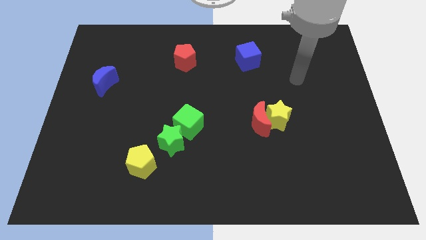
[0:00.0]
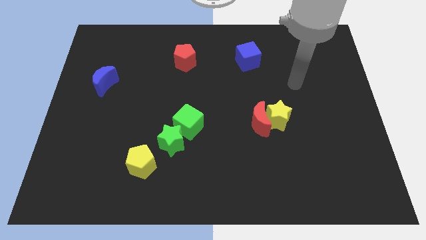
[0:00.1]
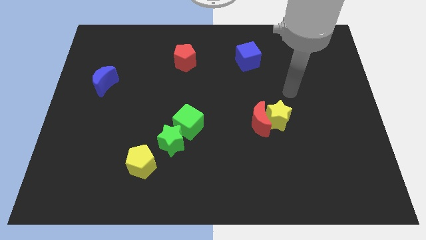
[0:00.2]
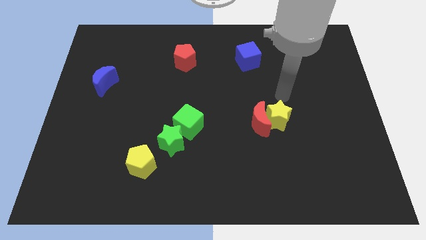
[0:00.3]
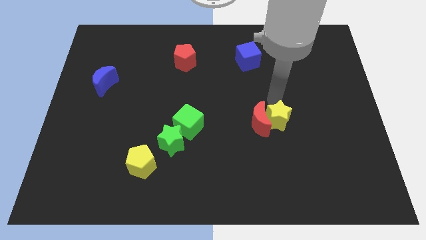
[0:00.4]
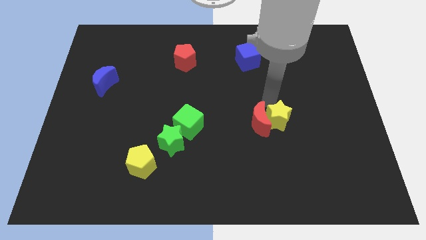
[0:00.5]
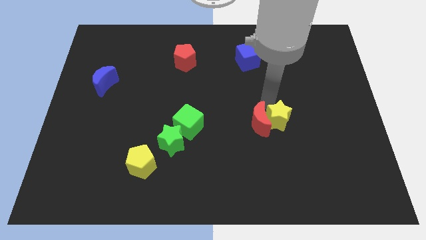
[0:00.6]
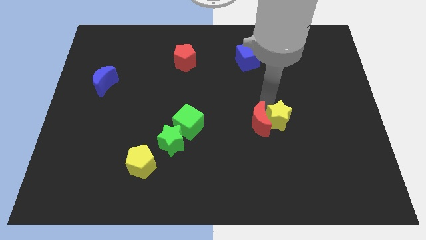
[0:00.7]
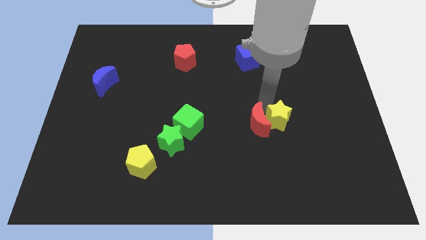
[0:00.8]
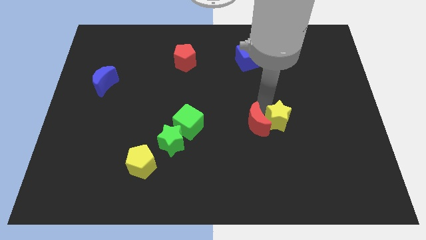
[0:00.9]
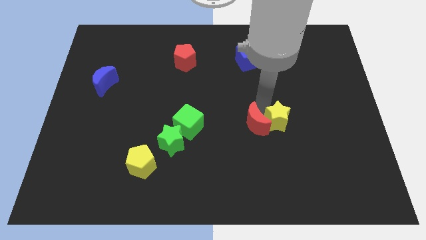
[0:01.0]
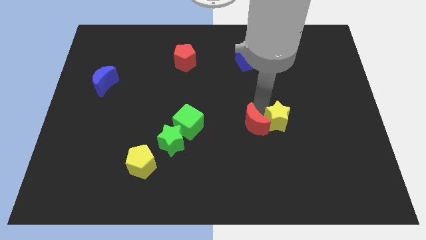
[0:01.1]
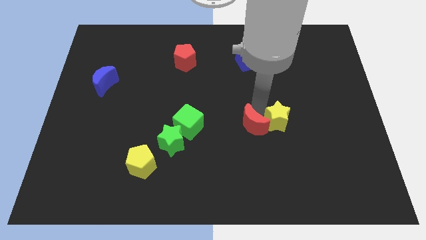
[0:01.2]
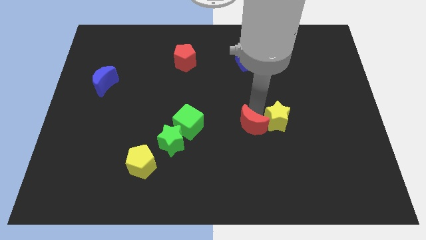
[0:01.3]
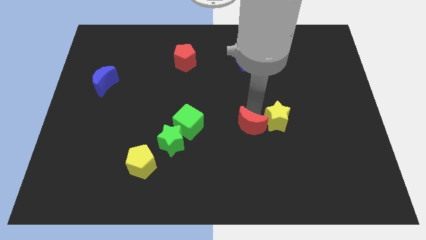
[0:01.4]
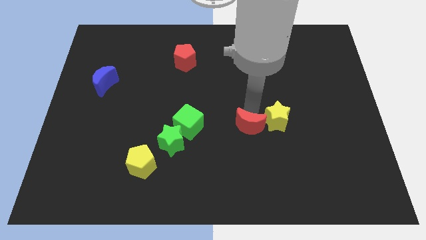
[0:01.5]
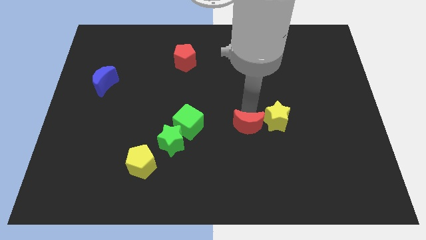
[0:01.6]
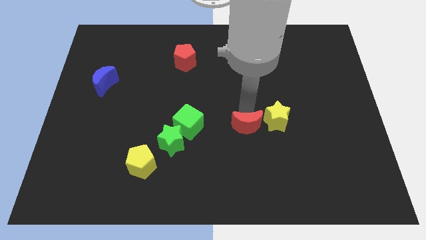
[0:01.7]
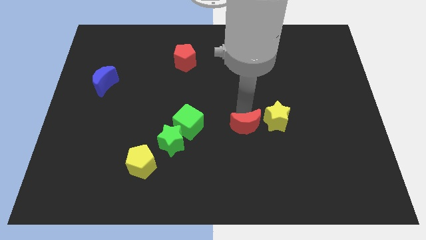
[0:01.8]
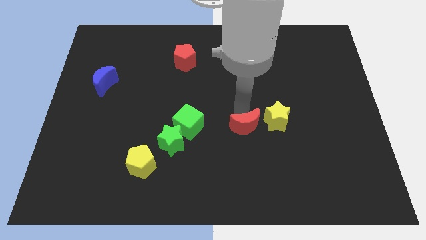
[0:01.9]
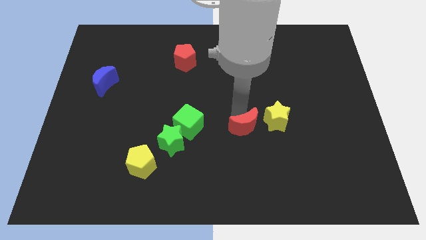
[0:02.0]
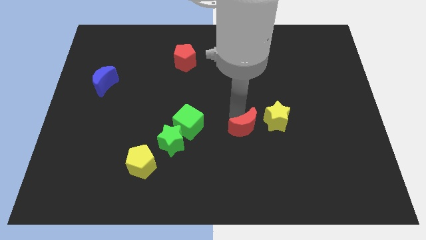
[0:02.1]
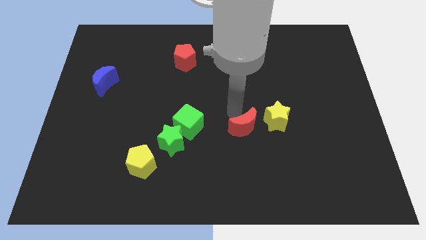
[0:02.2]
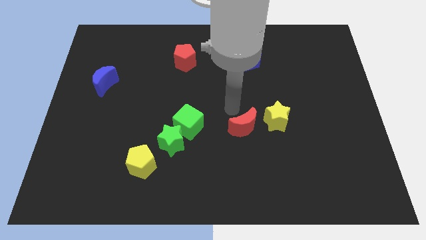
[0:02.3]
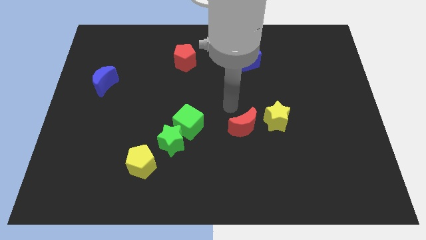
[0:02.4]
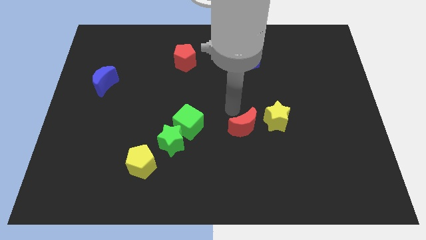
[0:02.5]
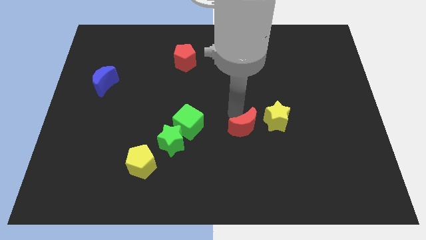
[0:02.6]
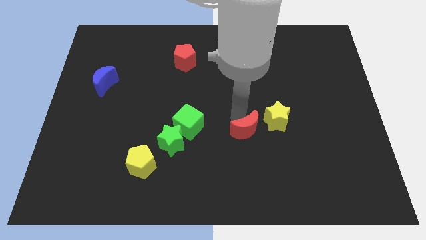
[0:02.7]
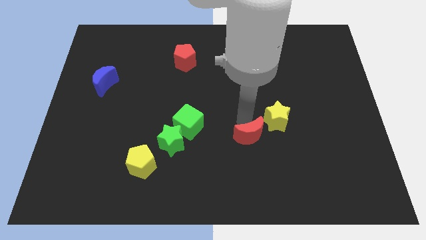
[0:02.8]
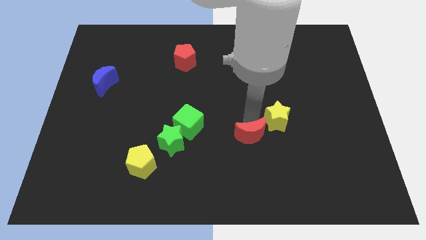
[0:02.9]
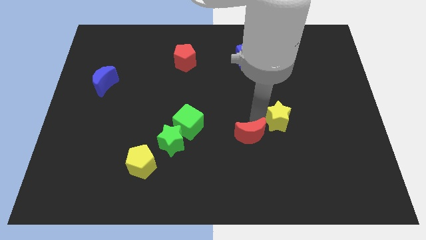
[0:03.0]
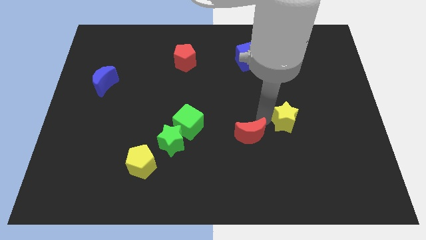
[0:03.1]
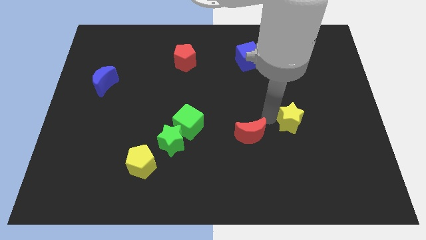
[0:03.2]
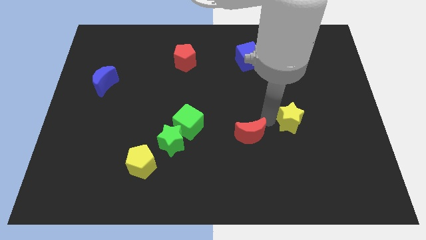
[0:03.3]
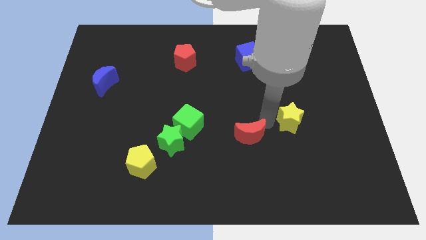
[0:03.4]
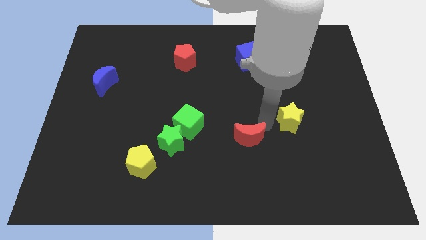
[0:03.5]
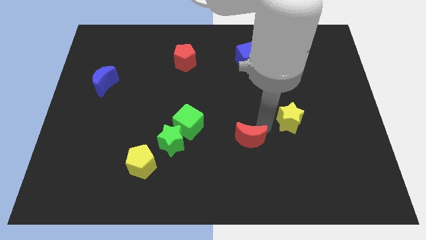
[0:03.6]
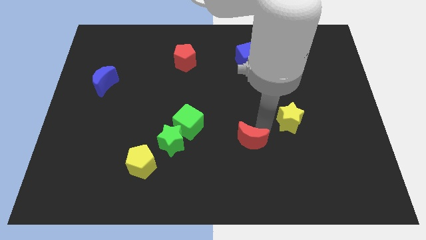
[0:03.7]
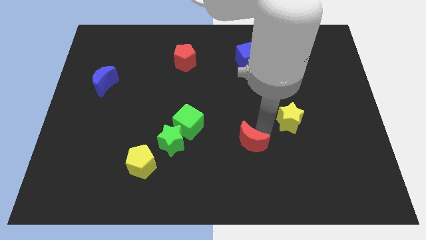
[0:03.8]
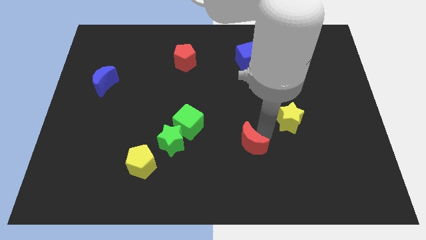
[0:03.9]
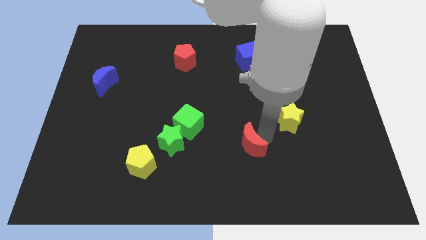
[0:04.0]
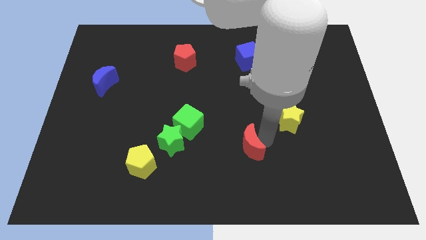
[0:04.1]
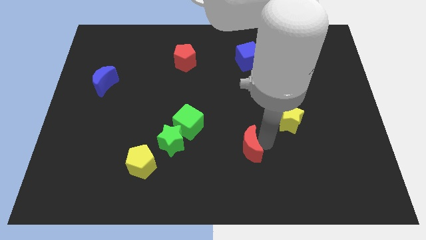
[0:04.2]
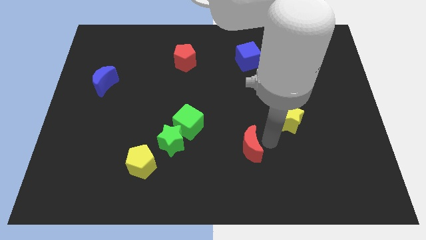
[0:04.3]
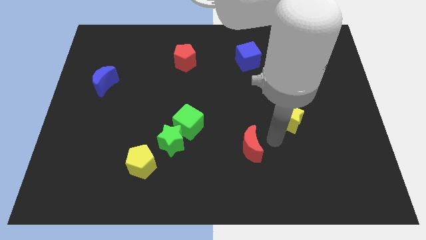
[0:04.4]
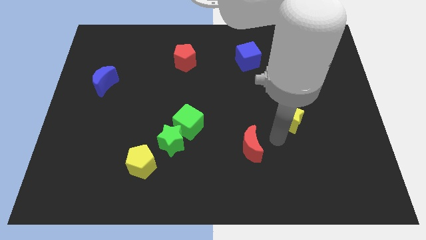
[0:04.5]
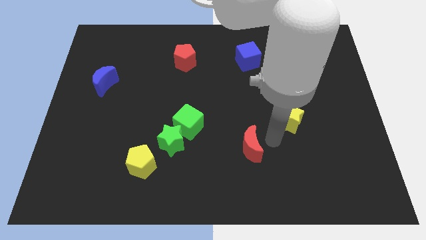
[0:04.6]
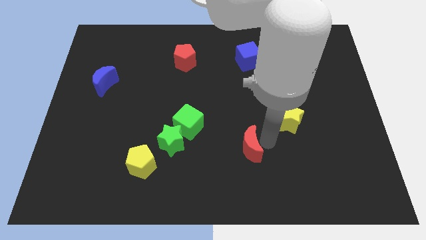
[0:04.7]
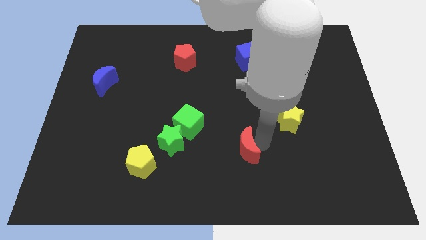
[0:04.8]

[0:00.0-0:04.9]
slightly push the red moon down and then left

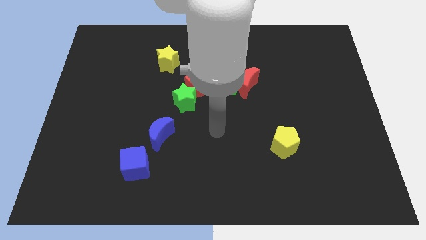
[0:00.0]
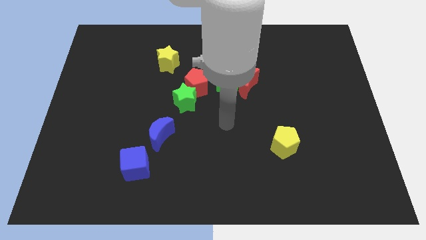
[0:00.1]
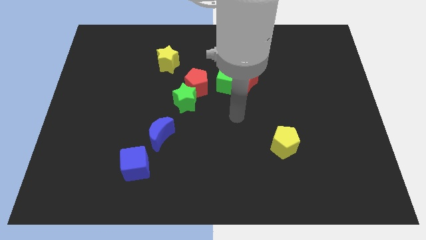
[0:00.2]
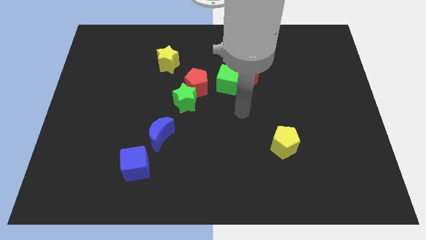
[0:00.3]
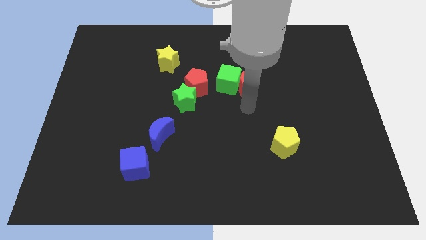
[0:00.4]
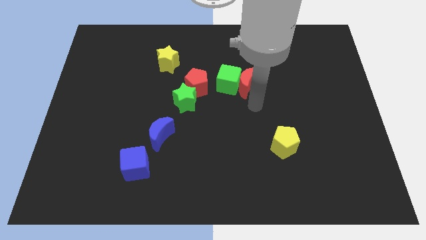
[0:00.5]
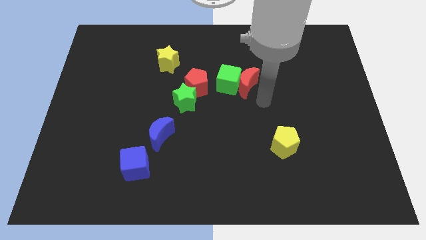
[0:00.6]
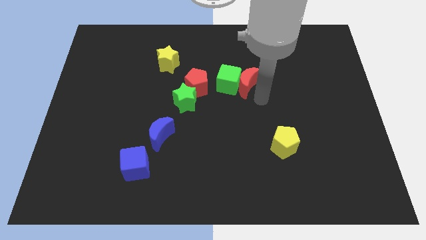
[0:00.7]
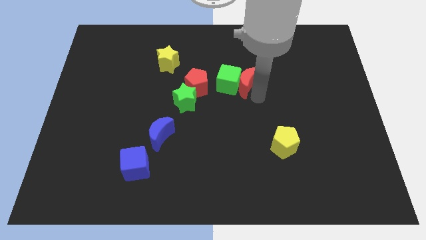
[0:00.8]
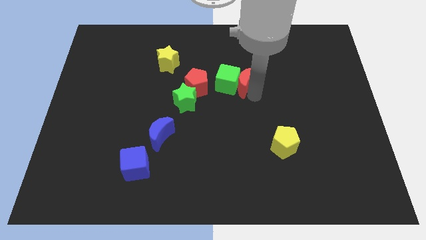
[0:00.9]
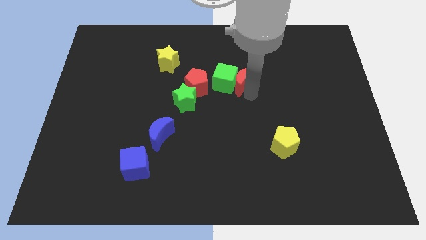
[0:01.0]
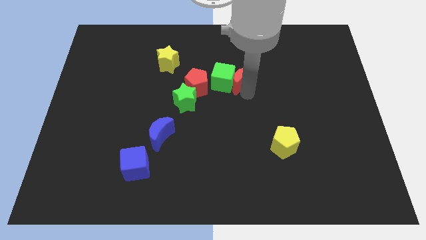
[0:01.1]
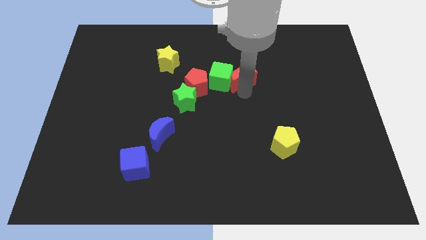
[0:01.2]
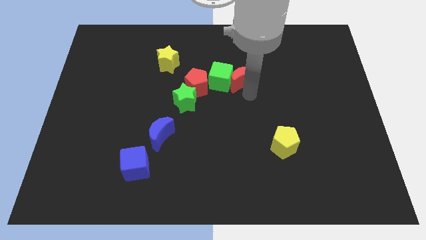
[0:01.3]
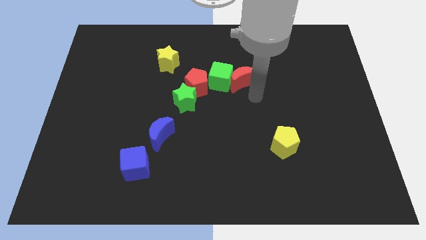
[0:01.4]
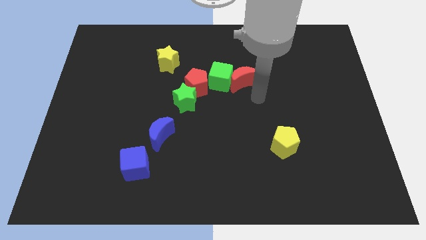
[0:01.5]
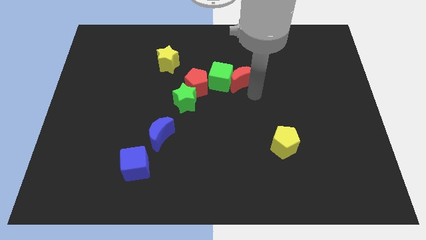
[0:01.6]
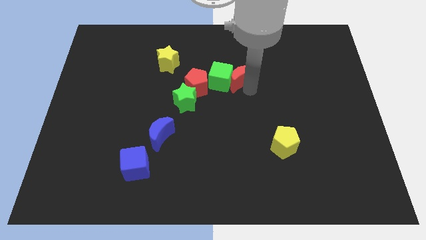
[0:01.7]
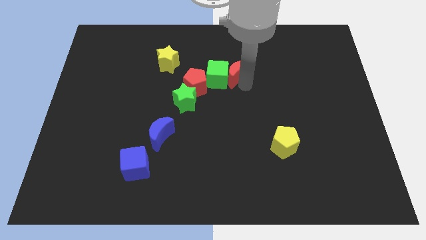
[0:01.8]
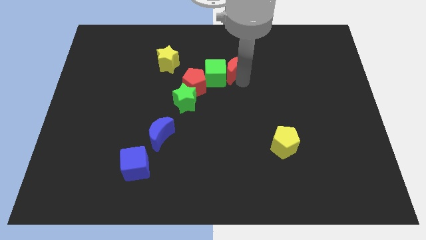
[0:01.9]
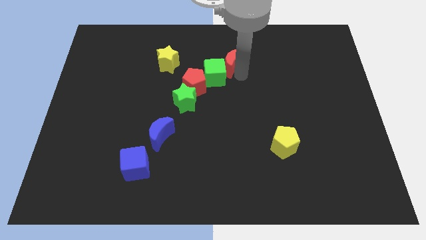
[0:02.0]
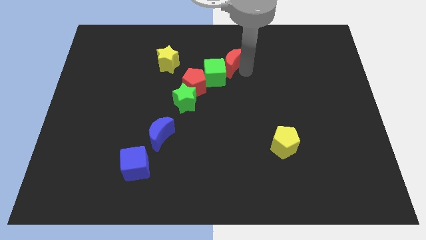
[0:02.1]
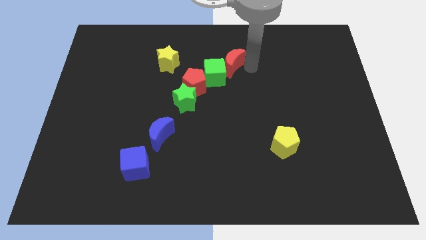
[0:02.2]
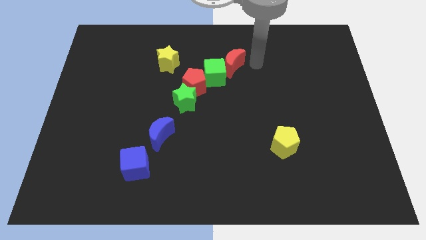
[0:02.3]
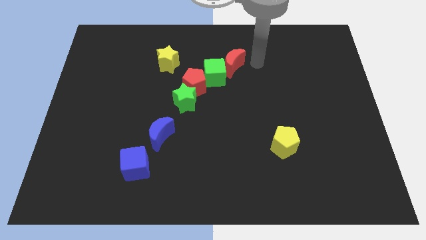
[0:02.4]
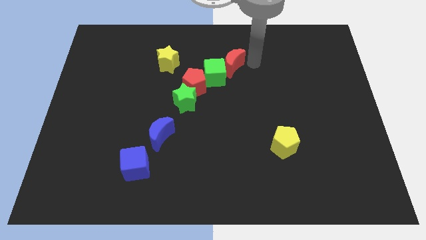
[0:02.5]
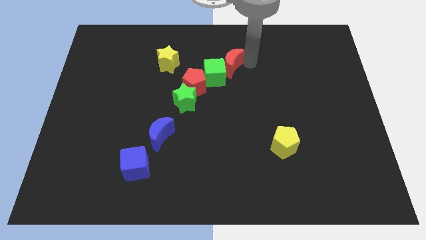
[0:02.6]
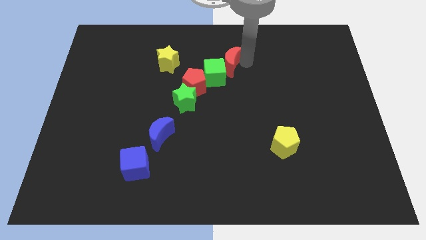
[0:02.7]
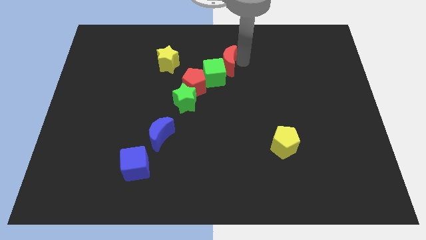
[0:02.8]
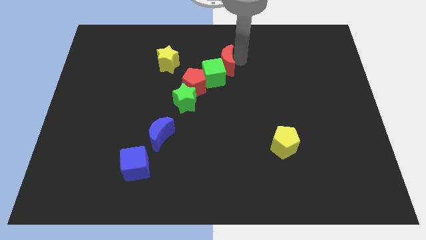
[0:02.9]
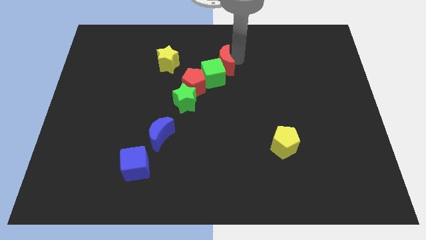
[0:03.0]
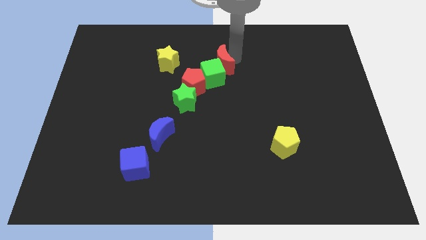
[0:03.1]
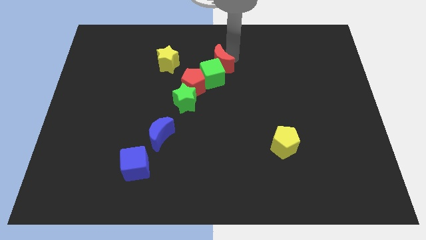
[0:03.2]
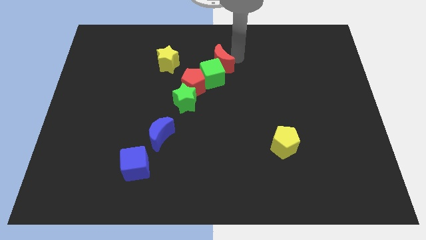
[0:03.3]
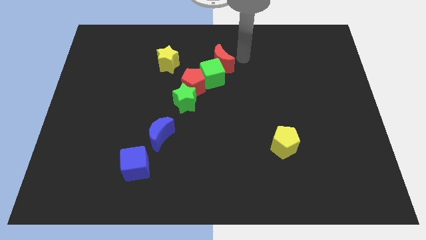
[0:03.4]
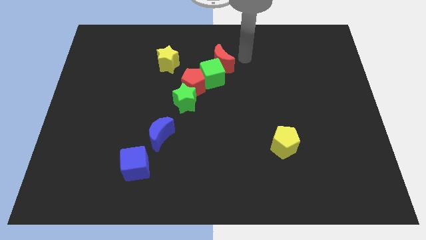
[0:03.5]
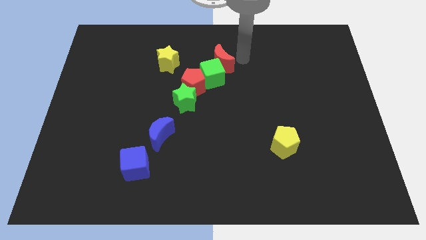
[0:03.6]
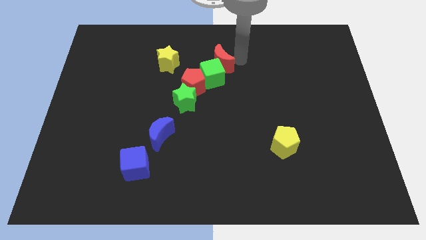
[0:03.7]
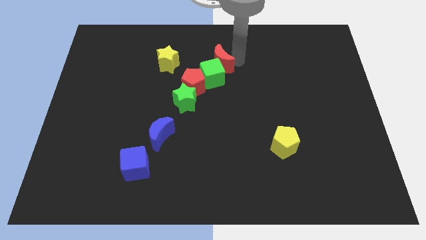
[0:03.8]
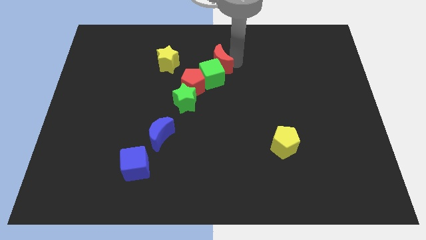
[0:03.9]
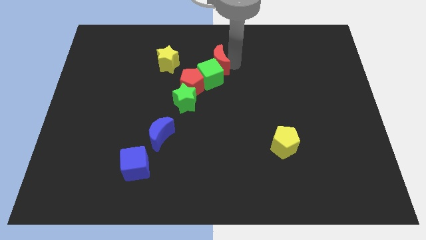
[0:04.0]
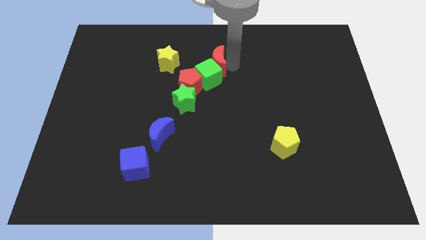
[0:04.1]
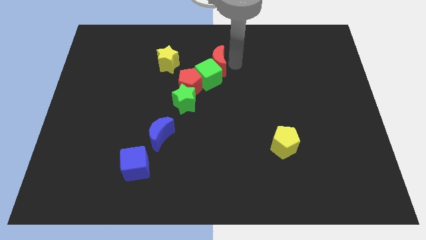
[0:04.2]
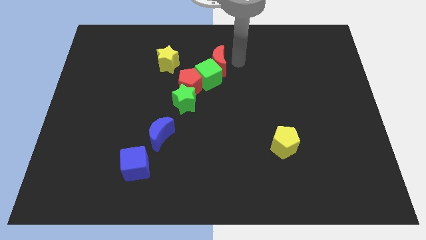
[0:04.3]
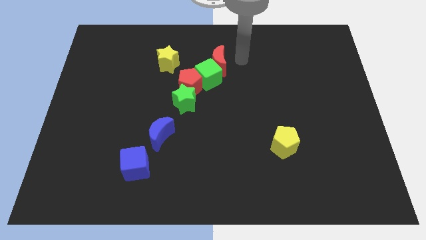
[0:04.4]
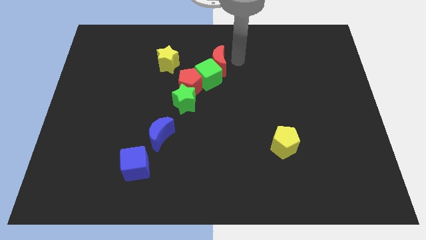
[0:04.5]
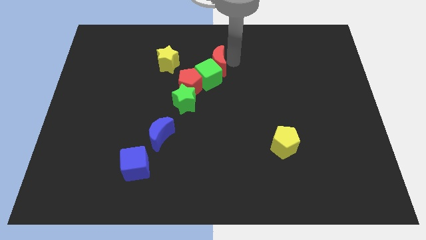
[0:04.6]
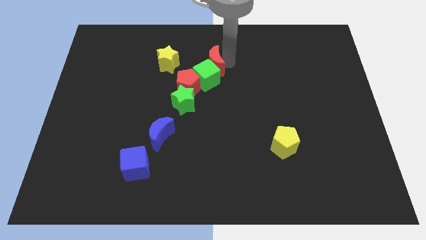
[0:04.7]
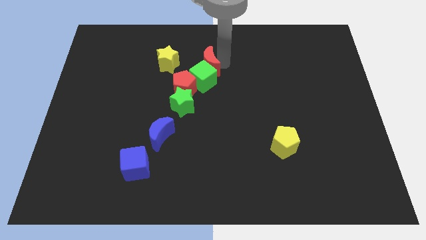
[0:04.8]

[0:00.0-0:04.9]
slightly move the red moon to the left
